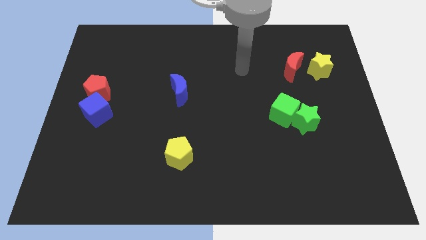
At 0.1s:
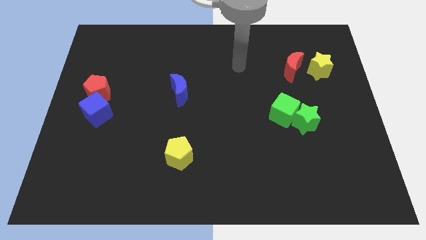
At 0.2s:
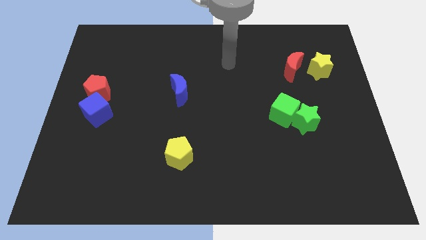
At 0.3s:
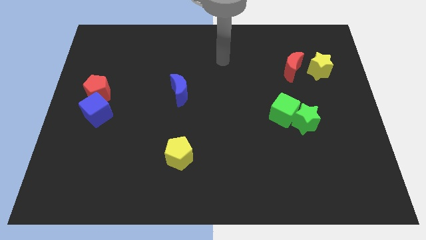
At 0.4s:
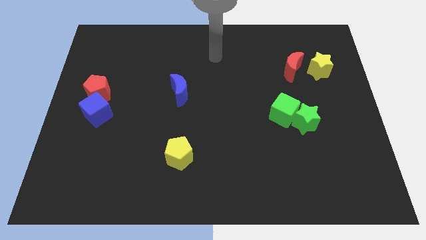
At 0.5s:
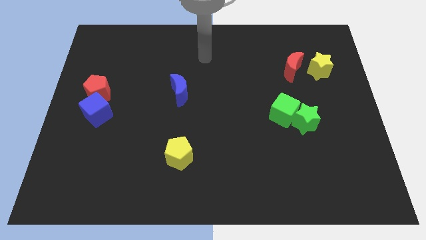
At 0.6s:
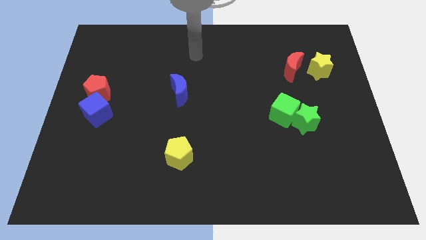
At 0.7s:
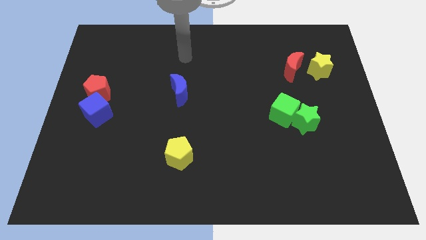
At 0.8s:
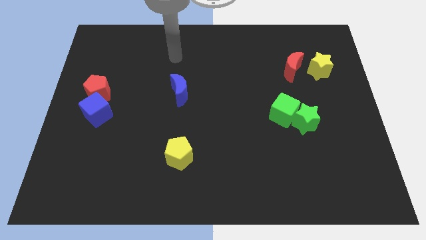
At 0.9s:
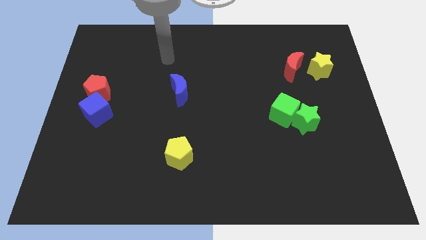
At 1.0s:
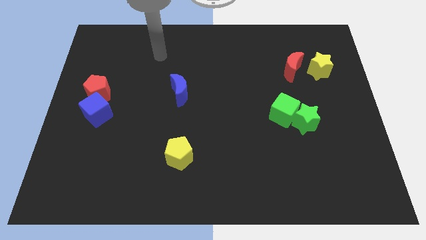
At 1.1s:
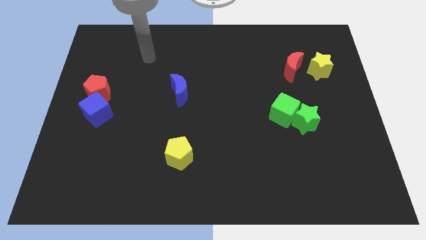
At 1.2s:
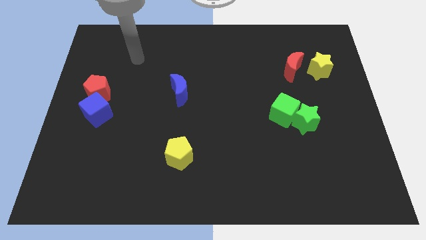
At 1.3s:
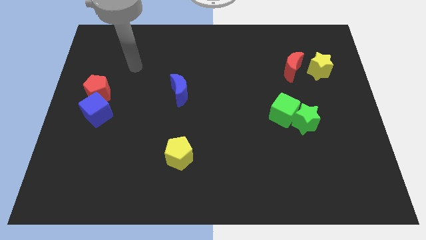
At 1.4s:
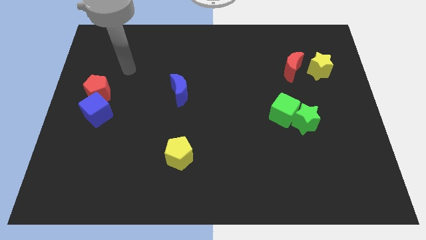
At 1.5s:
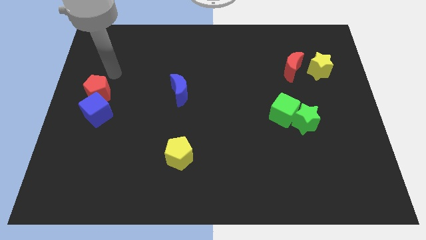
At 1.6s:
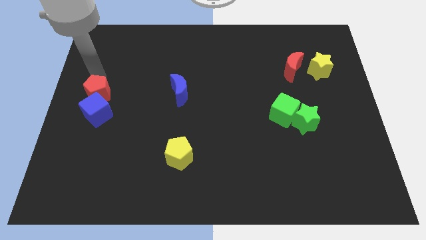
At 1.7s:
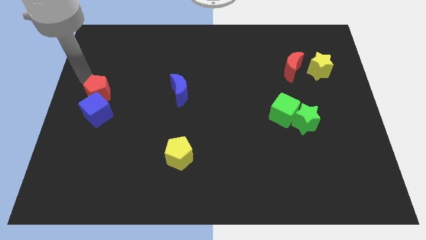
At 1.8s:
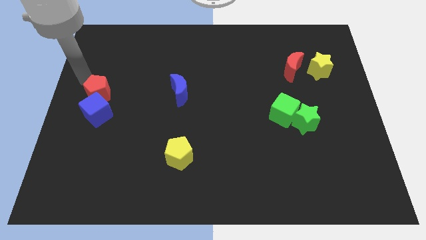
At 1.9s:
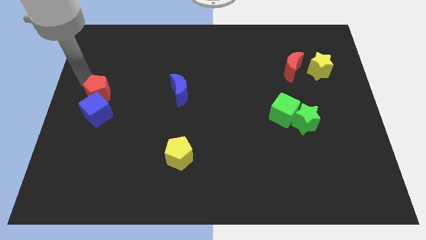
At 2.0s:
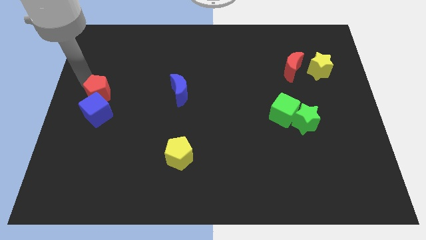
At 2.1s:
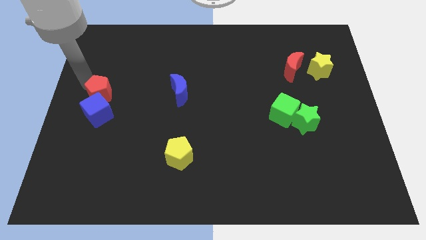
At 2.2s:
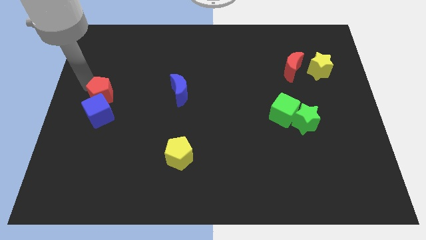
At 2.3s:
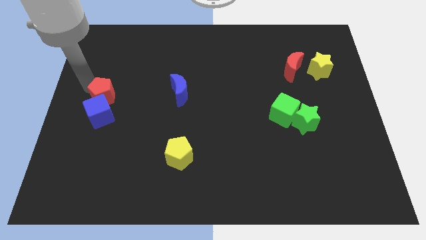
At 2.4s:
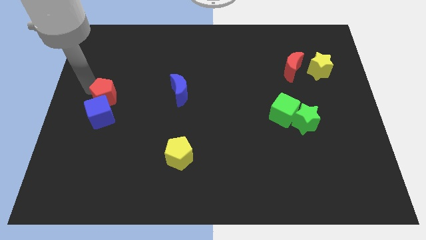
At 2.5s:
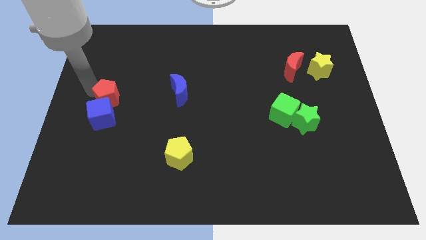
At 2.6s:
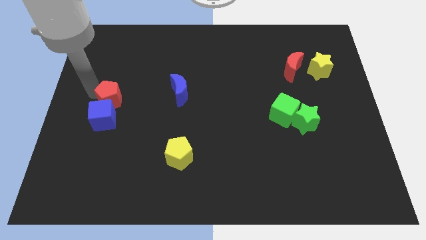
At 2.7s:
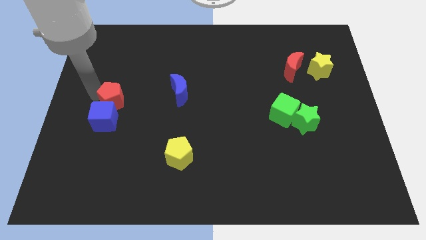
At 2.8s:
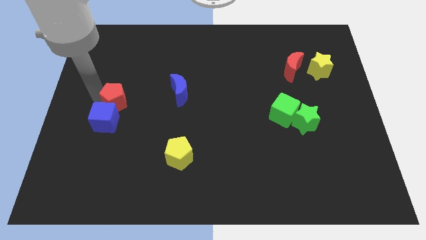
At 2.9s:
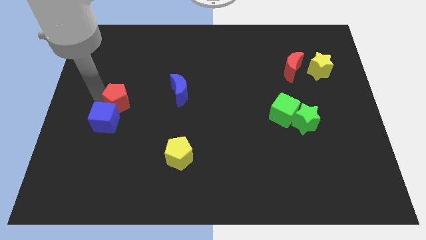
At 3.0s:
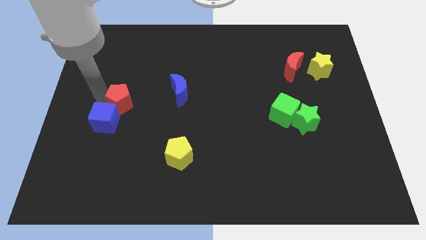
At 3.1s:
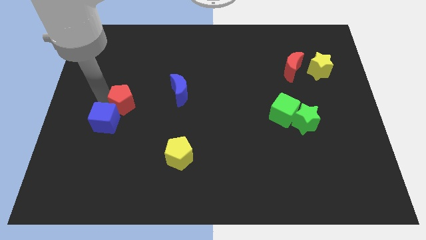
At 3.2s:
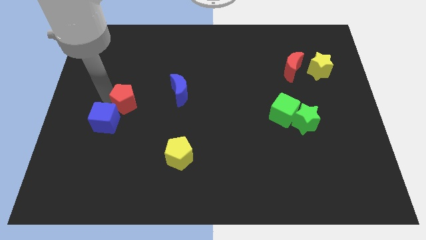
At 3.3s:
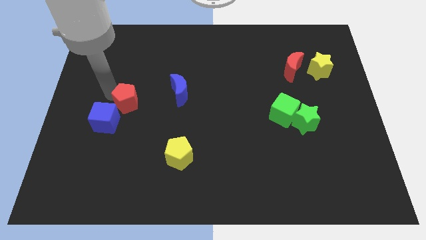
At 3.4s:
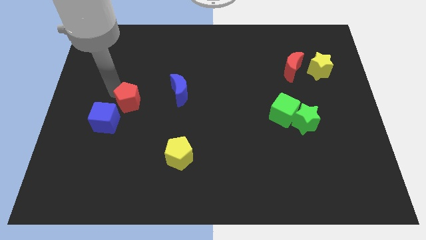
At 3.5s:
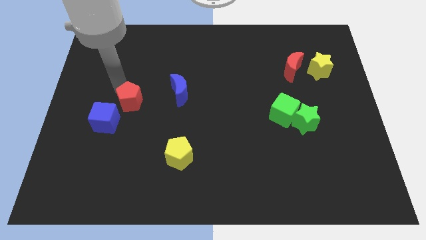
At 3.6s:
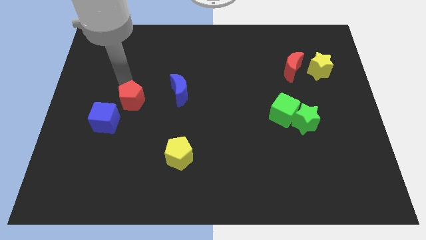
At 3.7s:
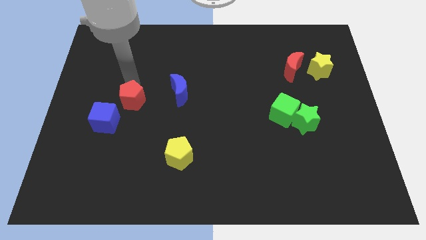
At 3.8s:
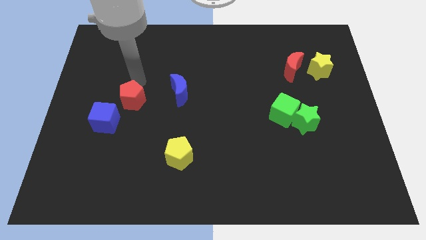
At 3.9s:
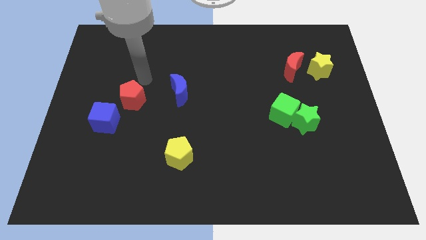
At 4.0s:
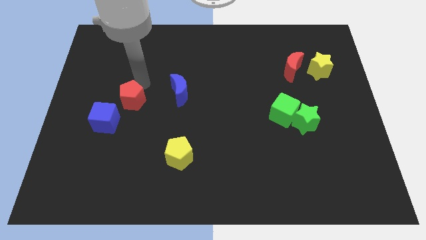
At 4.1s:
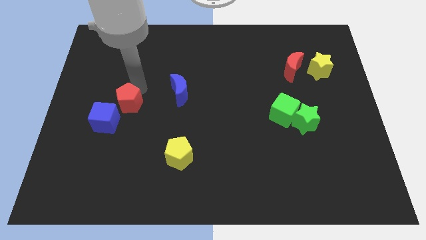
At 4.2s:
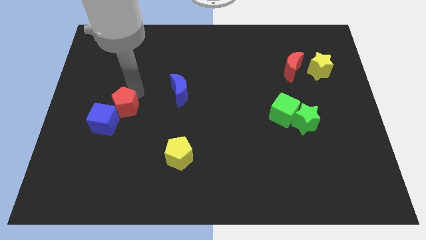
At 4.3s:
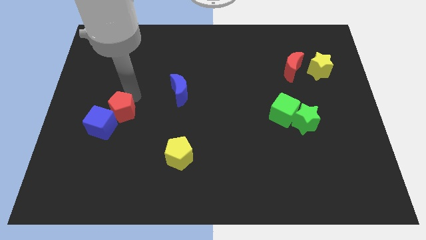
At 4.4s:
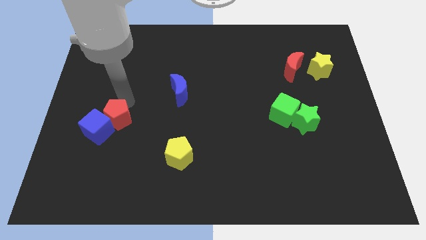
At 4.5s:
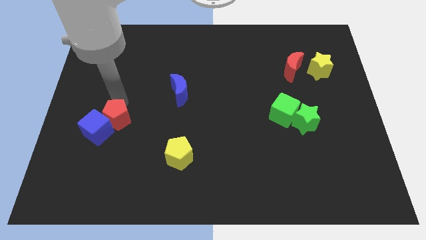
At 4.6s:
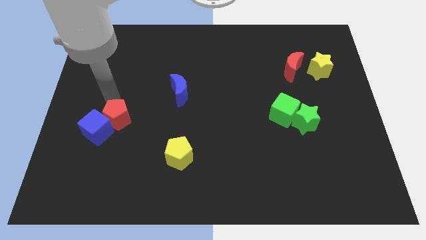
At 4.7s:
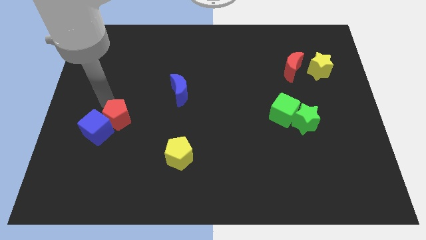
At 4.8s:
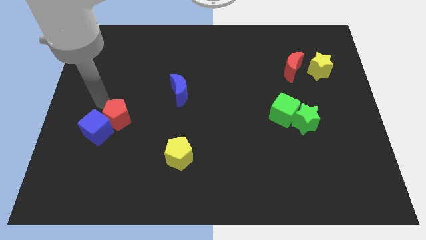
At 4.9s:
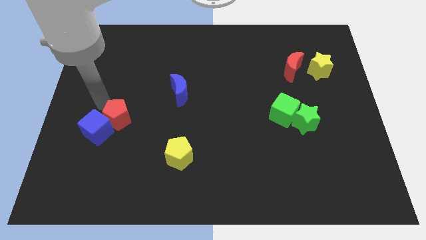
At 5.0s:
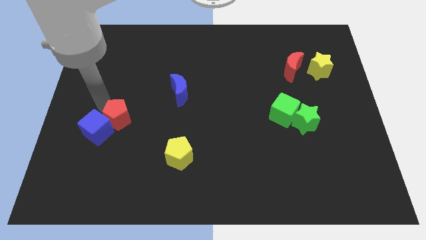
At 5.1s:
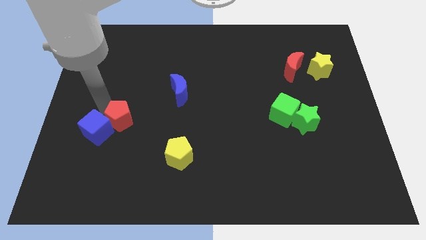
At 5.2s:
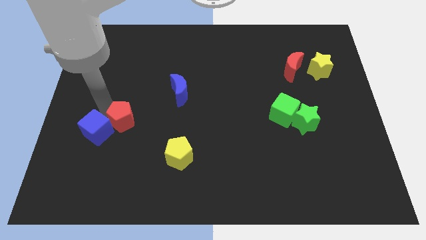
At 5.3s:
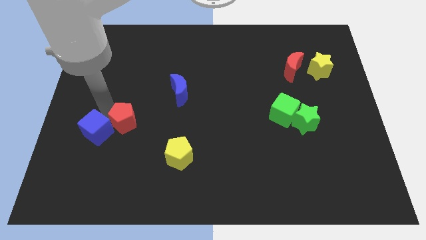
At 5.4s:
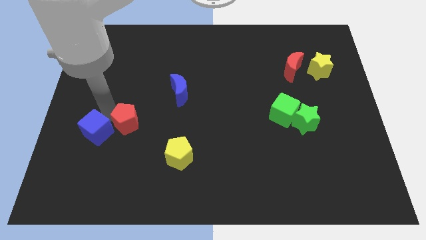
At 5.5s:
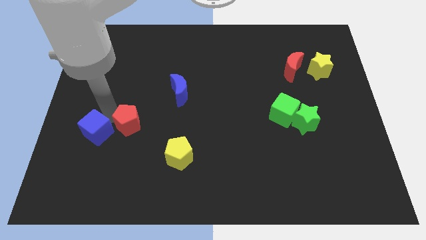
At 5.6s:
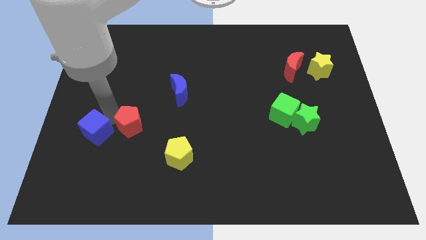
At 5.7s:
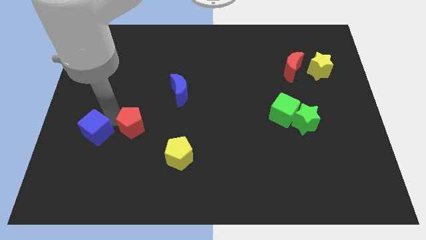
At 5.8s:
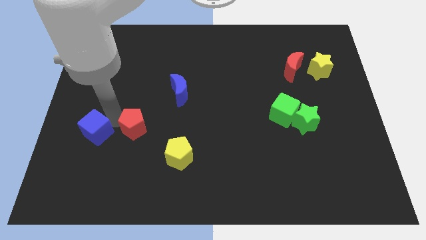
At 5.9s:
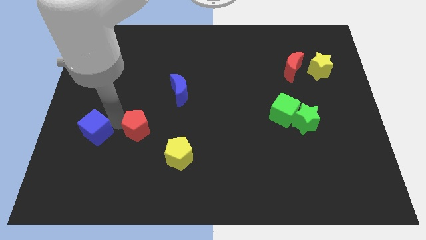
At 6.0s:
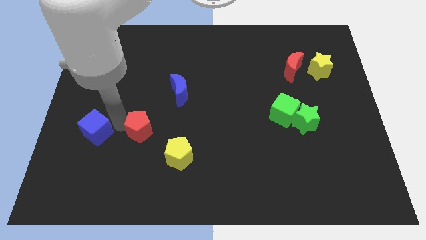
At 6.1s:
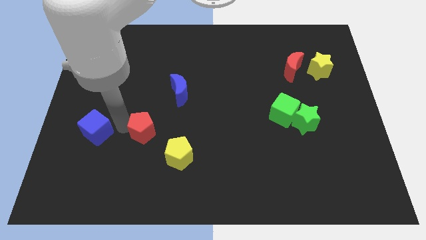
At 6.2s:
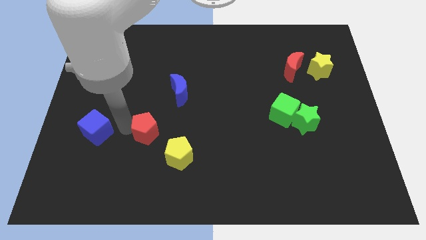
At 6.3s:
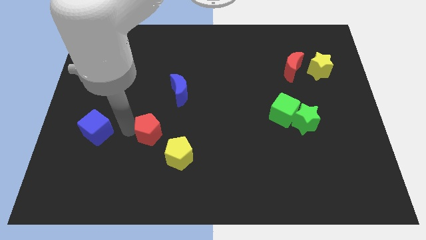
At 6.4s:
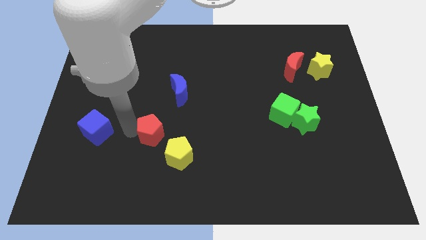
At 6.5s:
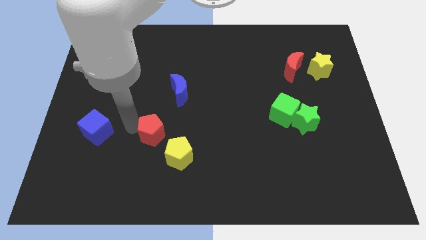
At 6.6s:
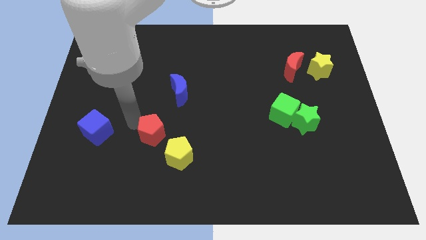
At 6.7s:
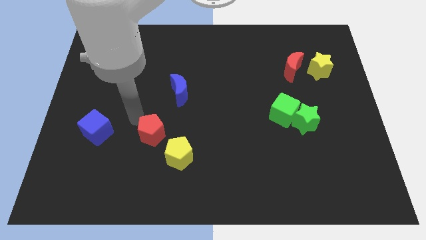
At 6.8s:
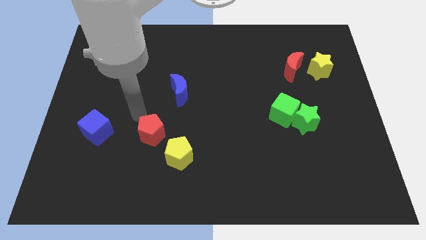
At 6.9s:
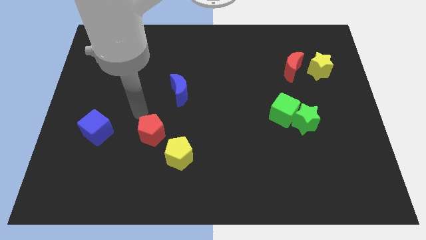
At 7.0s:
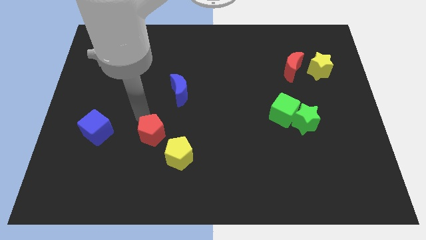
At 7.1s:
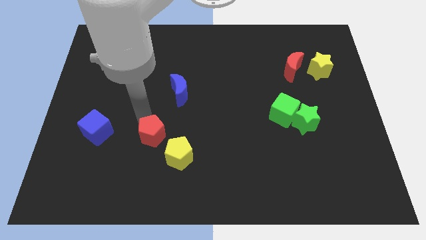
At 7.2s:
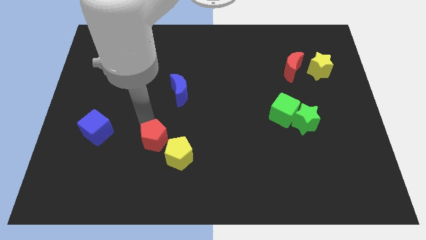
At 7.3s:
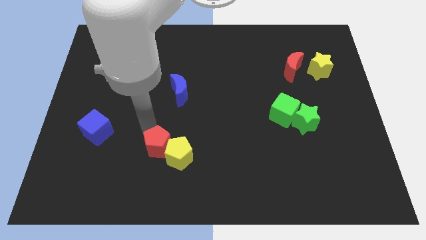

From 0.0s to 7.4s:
slide the red pentagon to the yellow pentagon
